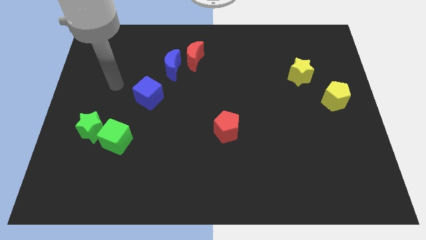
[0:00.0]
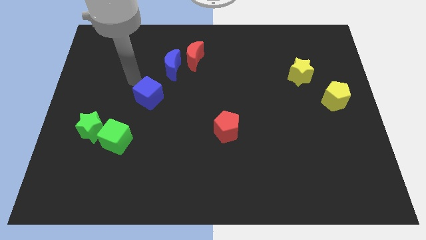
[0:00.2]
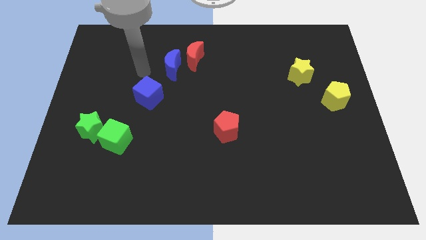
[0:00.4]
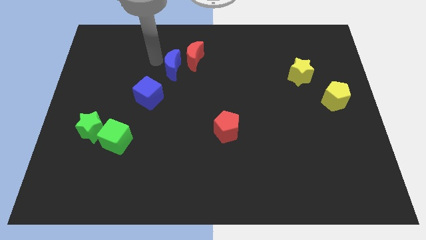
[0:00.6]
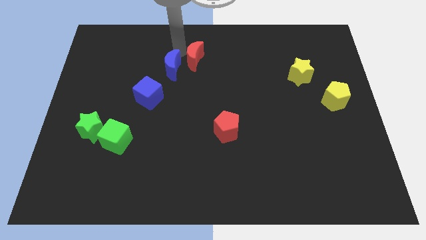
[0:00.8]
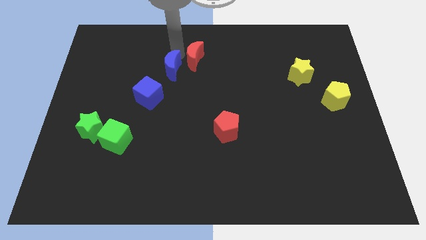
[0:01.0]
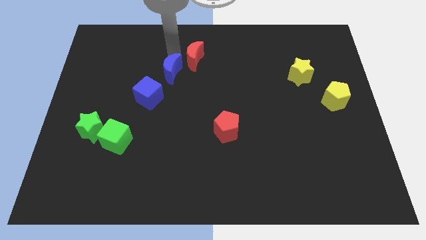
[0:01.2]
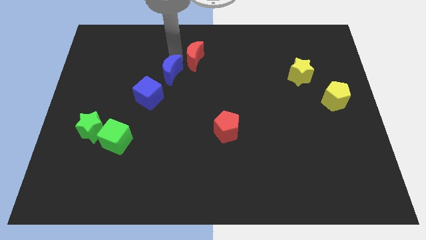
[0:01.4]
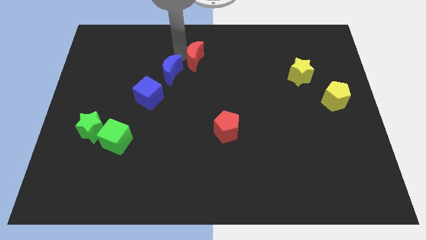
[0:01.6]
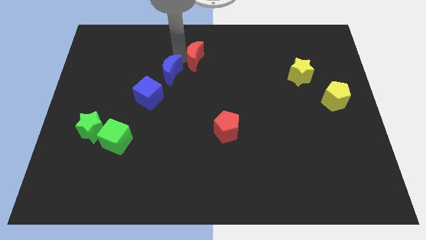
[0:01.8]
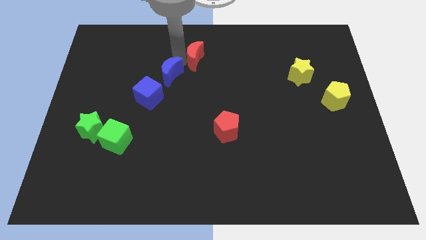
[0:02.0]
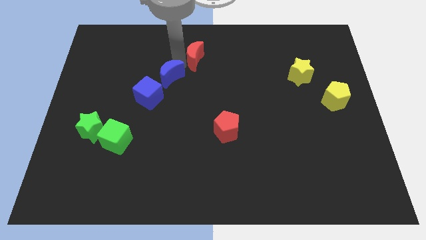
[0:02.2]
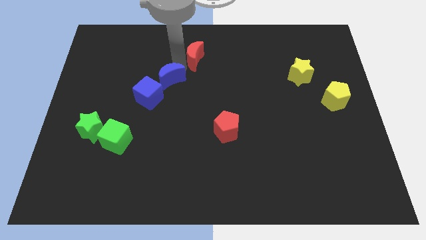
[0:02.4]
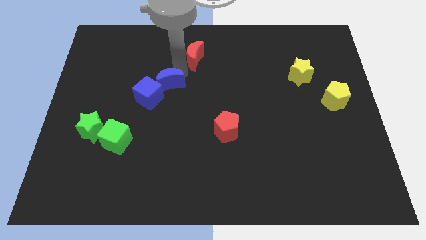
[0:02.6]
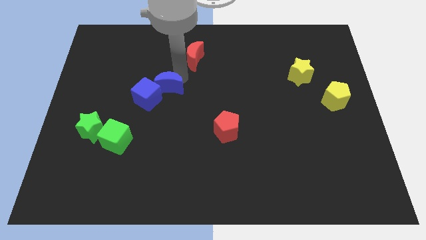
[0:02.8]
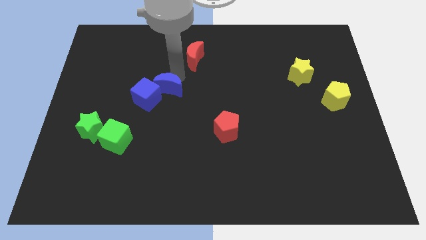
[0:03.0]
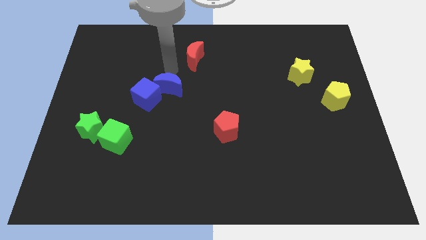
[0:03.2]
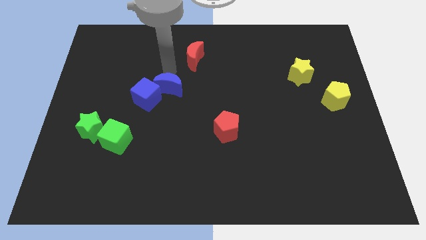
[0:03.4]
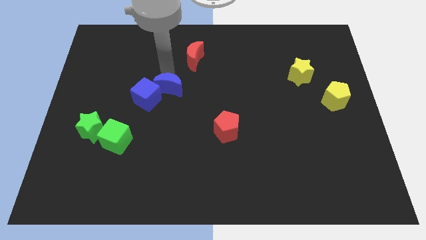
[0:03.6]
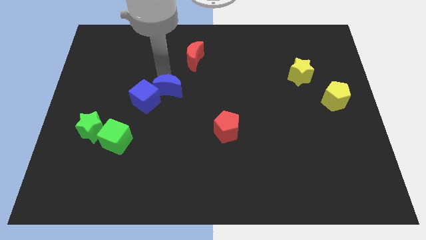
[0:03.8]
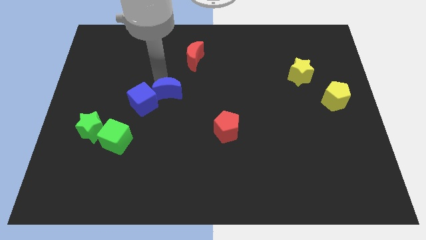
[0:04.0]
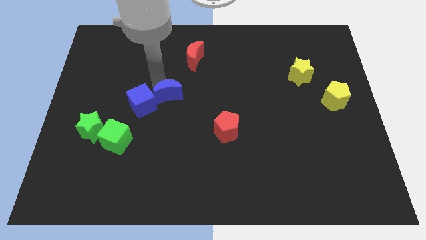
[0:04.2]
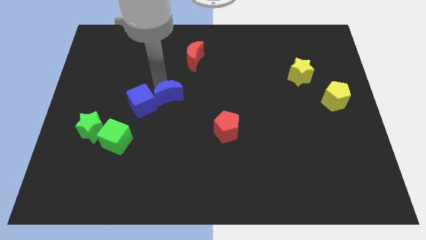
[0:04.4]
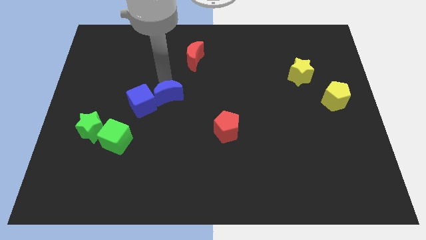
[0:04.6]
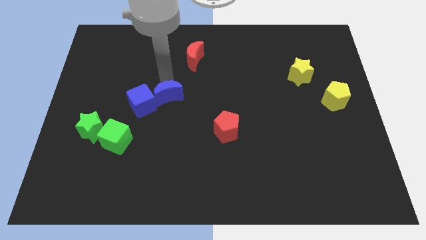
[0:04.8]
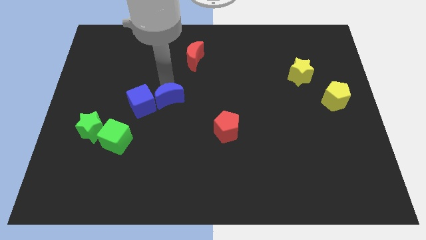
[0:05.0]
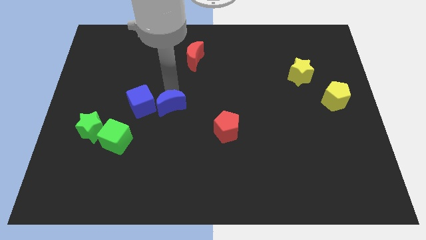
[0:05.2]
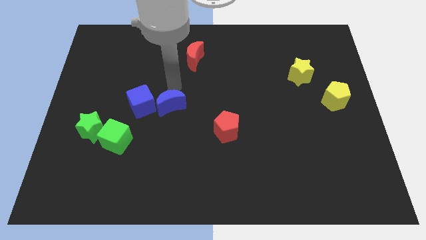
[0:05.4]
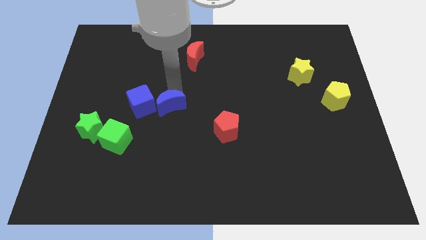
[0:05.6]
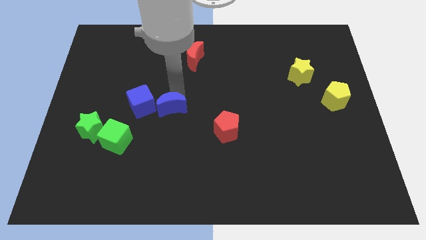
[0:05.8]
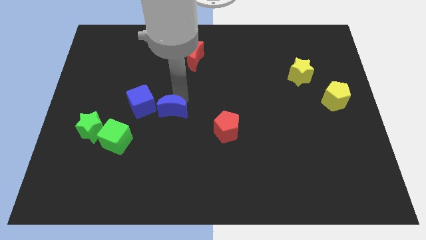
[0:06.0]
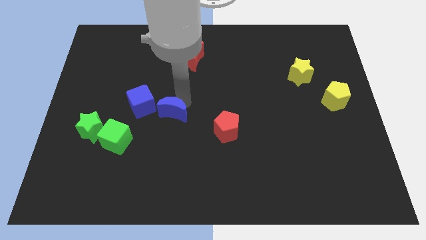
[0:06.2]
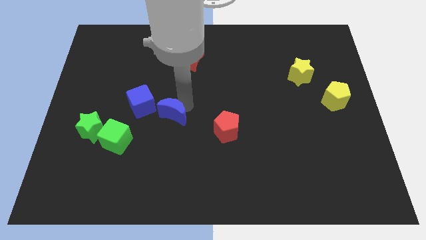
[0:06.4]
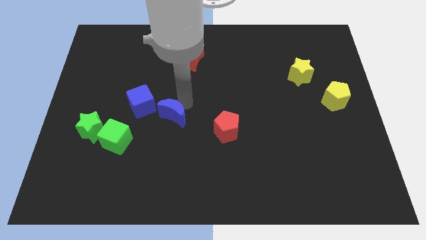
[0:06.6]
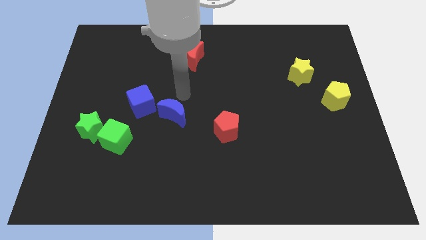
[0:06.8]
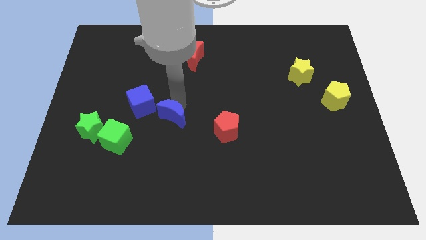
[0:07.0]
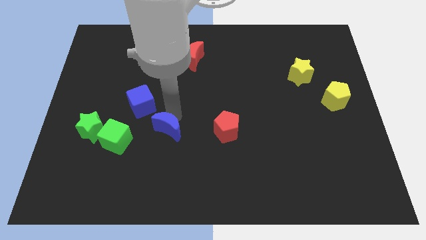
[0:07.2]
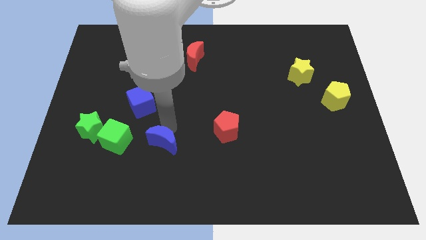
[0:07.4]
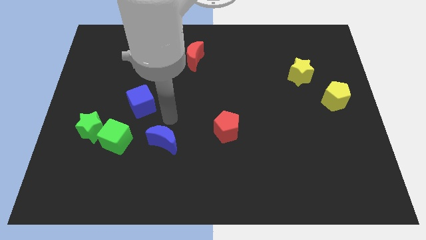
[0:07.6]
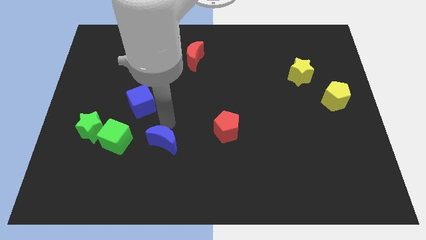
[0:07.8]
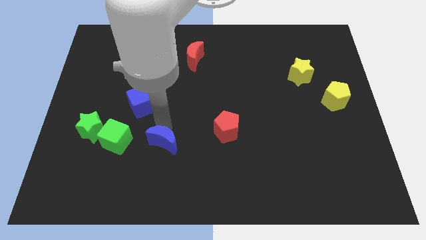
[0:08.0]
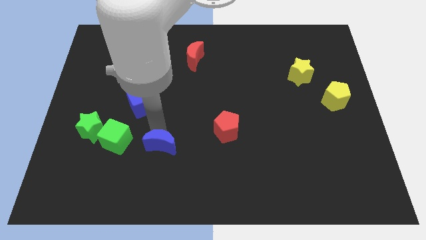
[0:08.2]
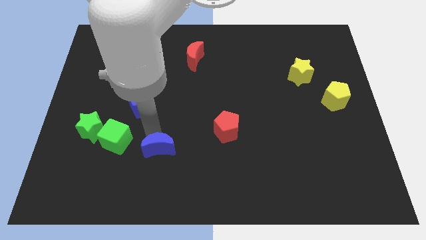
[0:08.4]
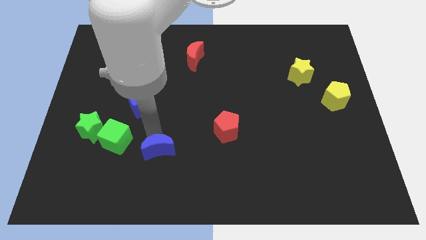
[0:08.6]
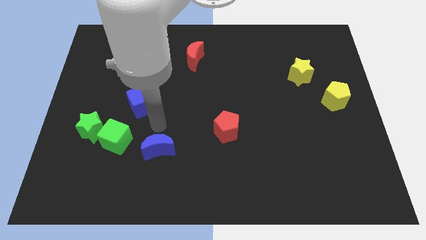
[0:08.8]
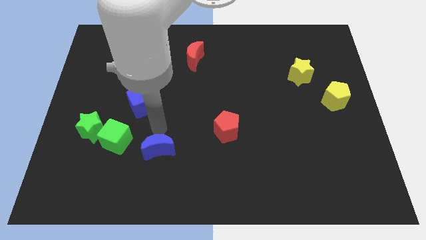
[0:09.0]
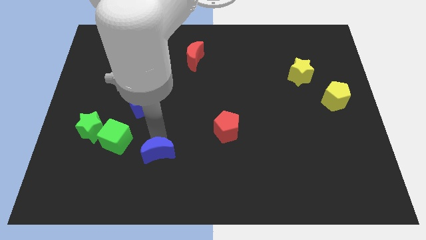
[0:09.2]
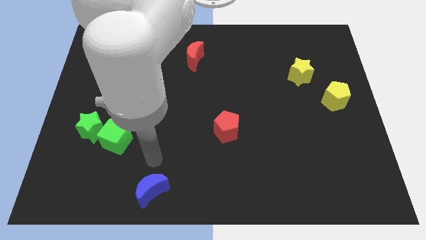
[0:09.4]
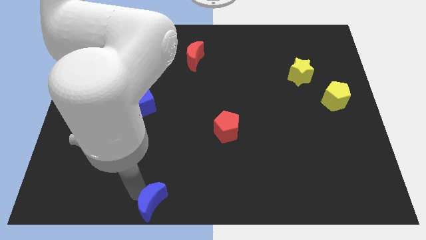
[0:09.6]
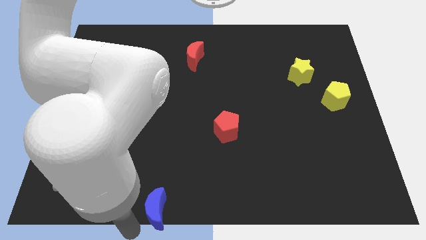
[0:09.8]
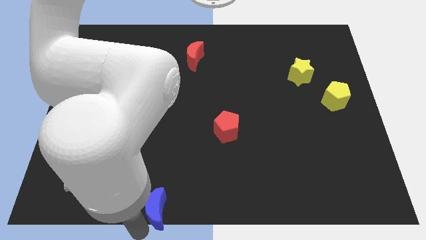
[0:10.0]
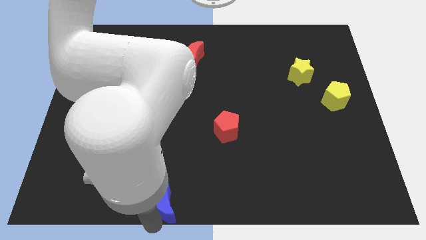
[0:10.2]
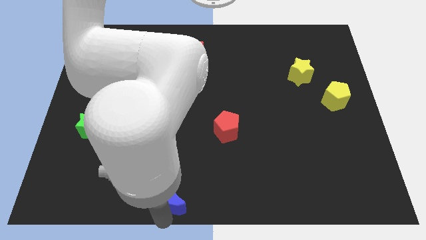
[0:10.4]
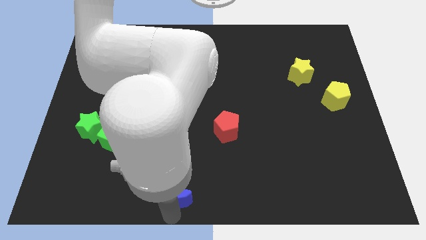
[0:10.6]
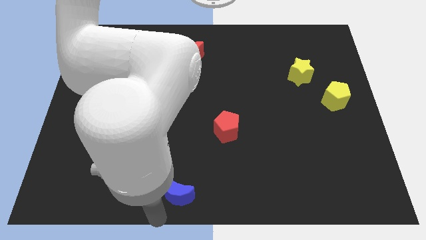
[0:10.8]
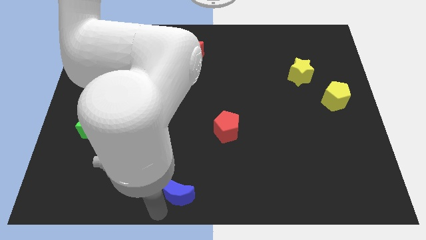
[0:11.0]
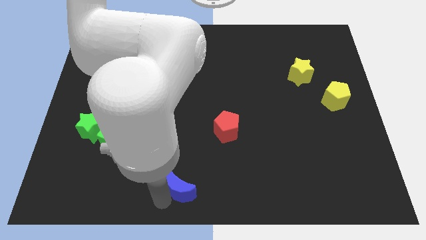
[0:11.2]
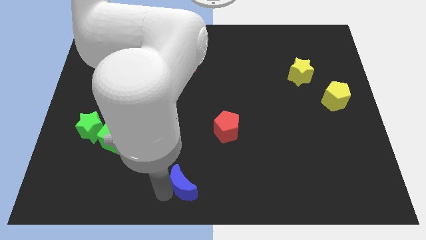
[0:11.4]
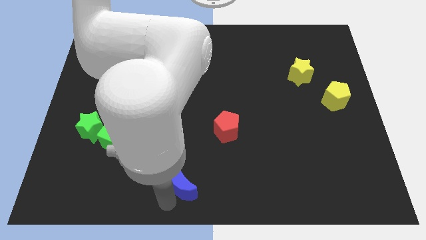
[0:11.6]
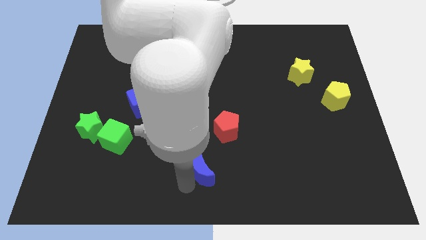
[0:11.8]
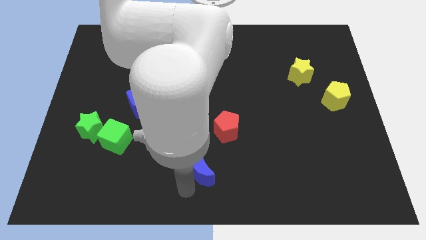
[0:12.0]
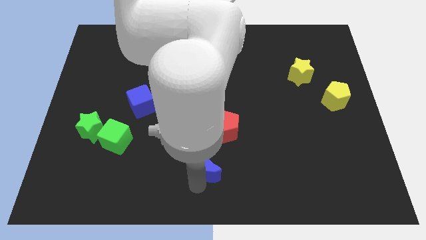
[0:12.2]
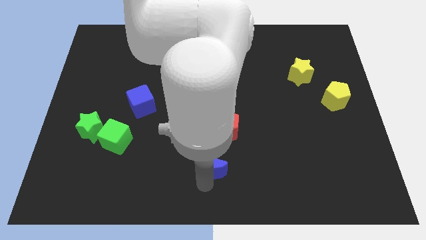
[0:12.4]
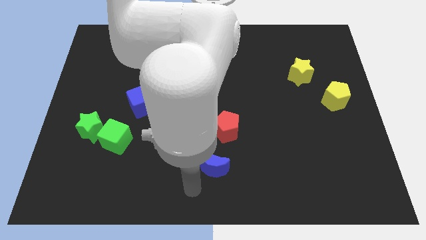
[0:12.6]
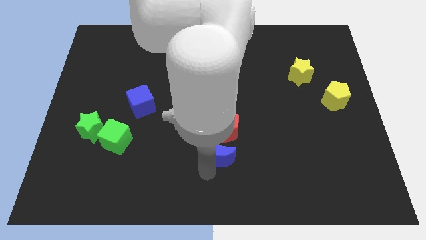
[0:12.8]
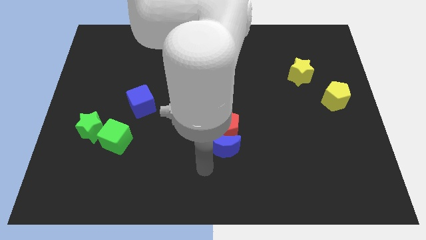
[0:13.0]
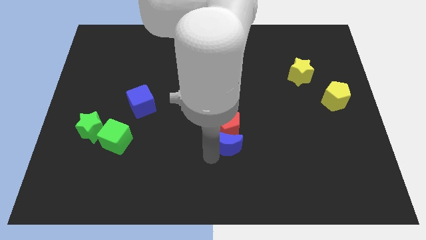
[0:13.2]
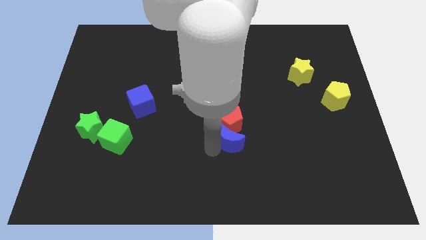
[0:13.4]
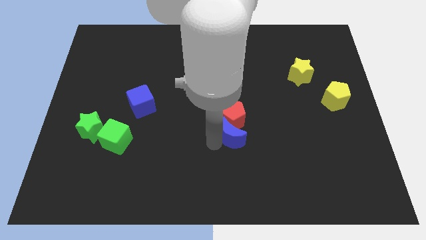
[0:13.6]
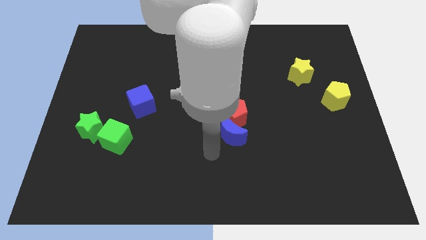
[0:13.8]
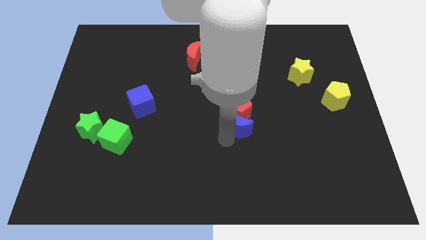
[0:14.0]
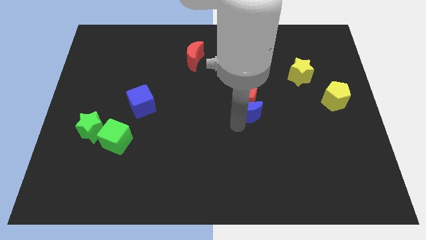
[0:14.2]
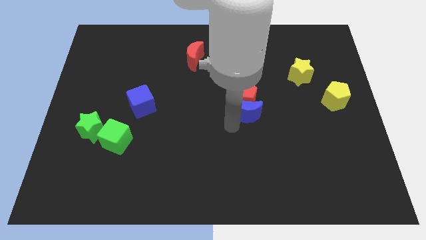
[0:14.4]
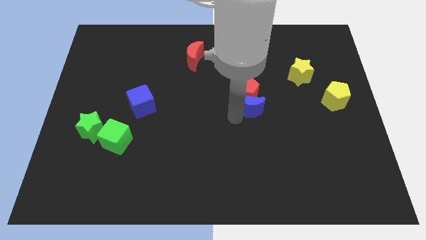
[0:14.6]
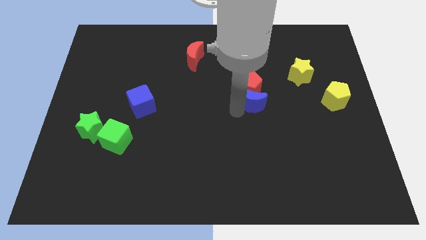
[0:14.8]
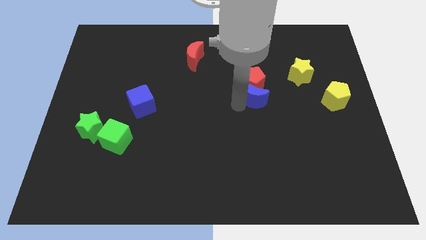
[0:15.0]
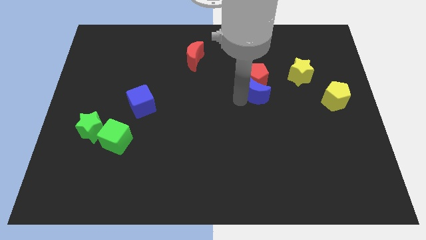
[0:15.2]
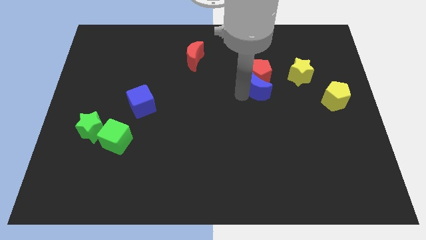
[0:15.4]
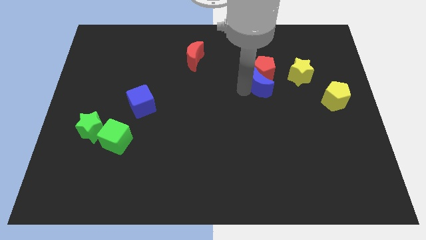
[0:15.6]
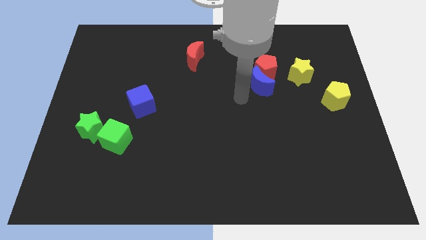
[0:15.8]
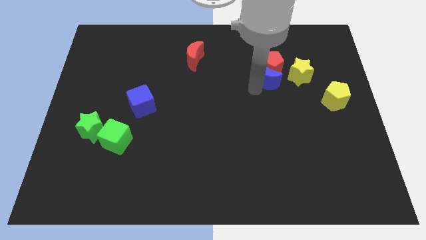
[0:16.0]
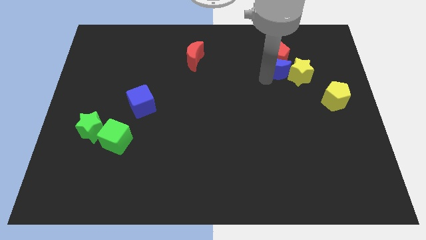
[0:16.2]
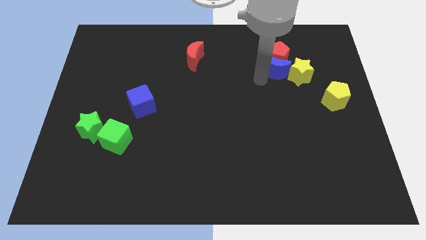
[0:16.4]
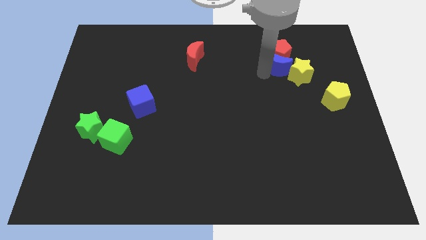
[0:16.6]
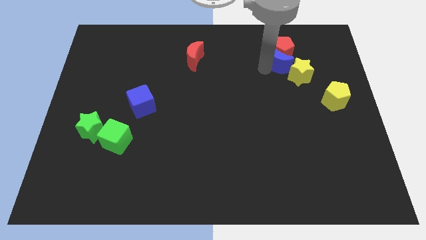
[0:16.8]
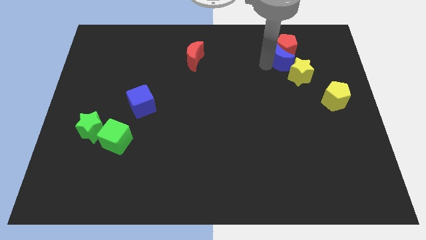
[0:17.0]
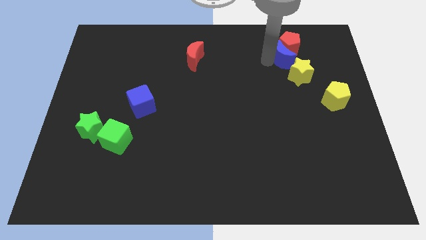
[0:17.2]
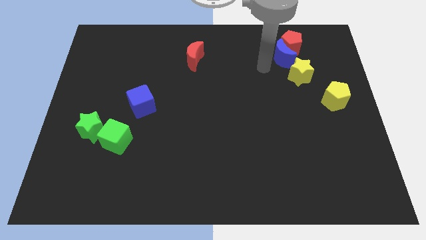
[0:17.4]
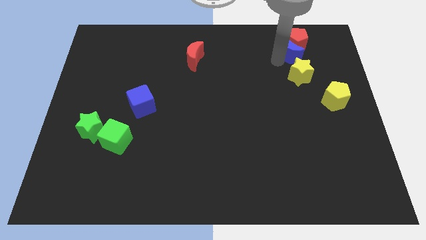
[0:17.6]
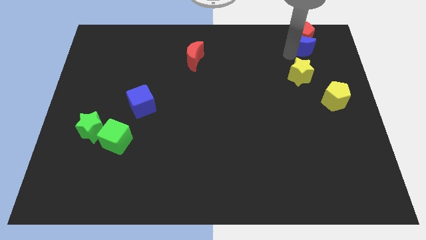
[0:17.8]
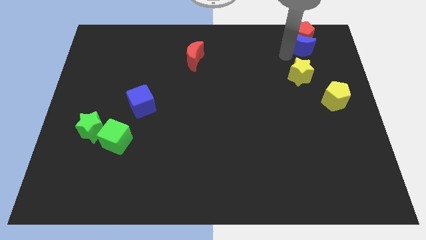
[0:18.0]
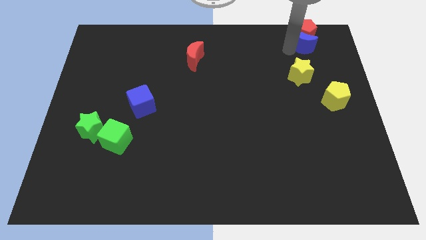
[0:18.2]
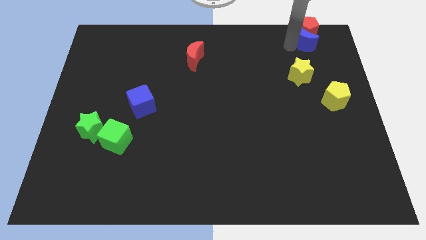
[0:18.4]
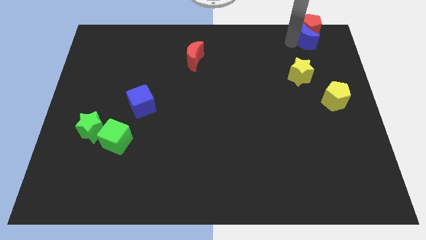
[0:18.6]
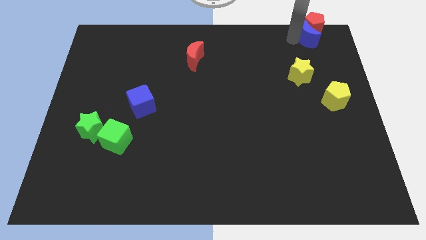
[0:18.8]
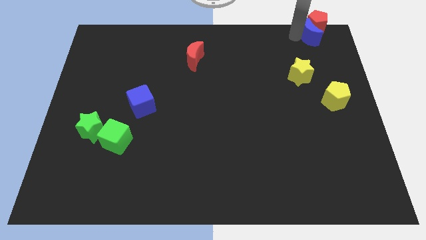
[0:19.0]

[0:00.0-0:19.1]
slide the blue moon to the top right
